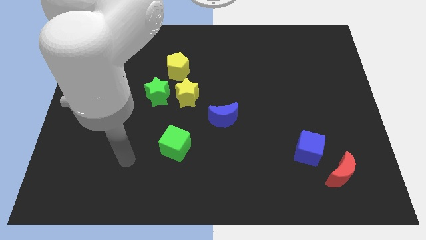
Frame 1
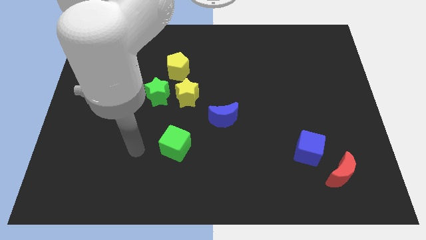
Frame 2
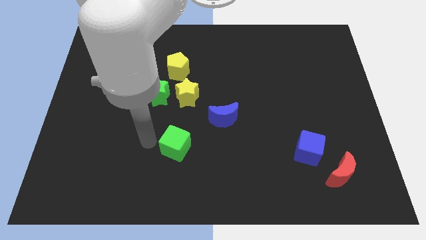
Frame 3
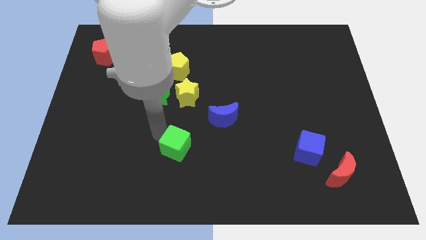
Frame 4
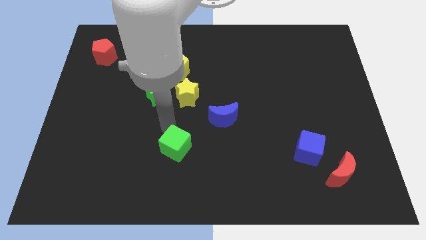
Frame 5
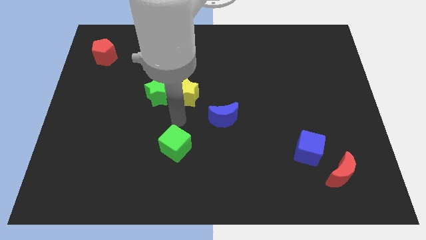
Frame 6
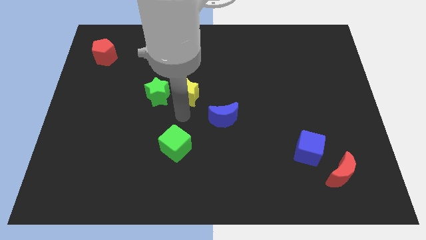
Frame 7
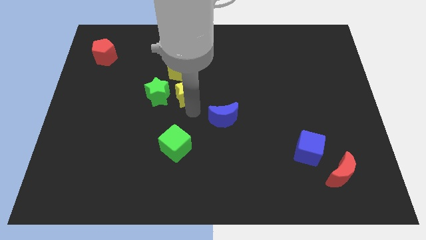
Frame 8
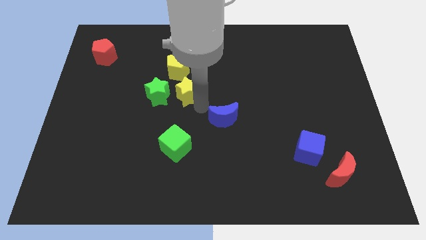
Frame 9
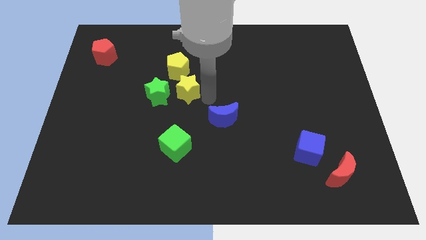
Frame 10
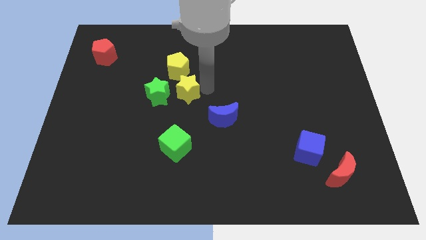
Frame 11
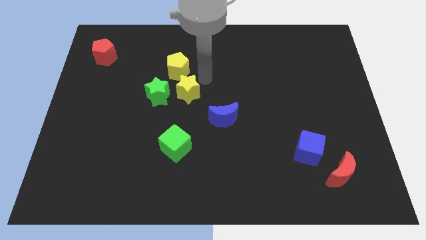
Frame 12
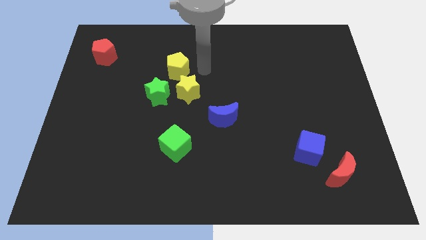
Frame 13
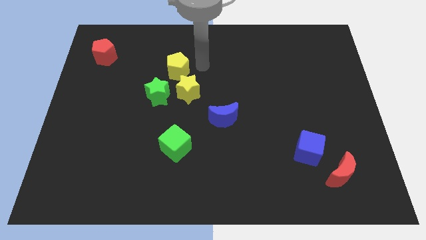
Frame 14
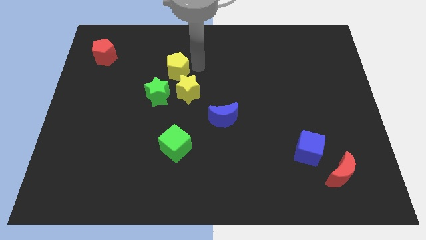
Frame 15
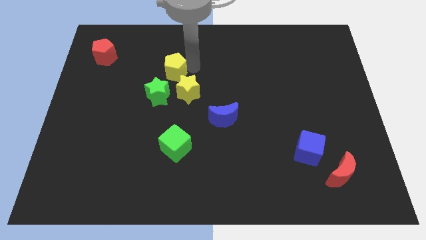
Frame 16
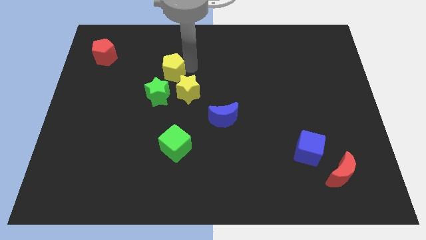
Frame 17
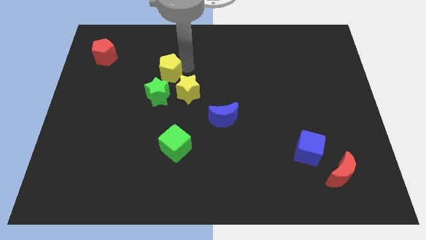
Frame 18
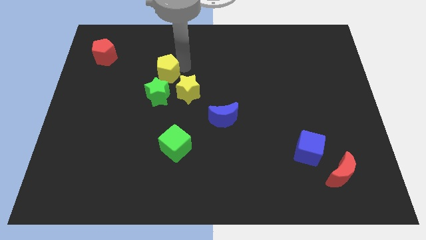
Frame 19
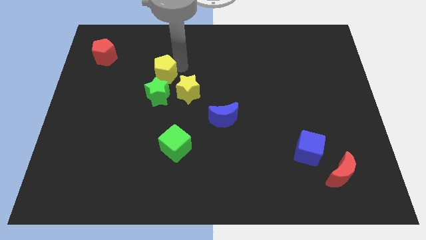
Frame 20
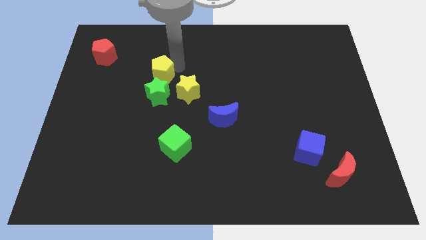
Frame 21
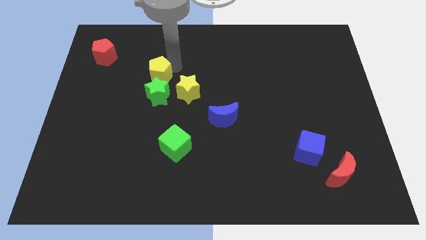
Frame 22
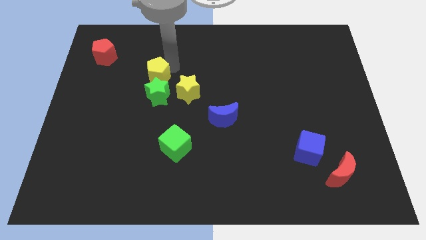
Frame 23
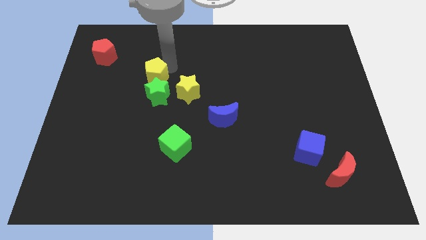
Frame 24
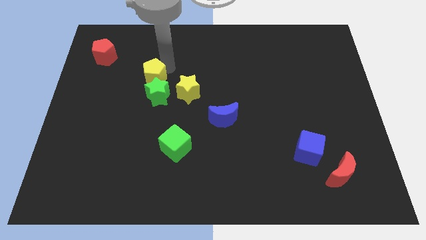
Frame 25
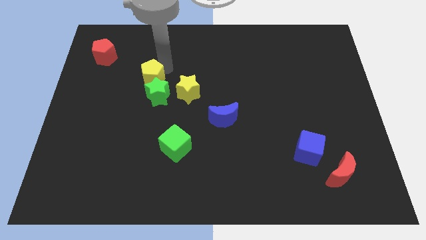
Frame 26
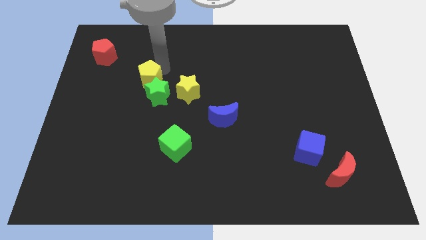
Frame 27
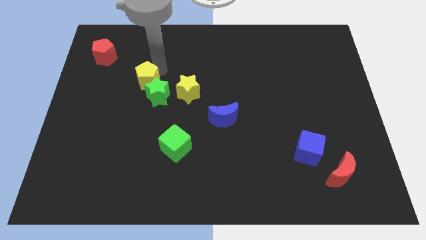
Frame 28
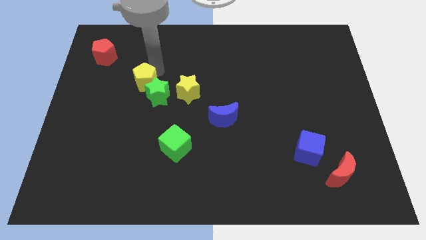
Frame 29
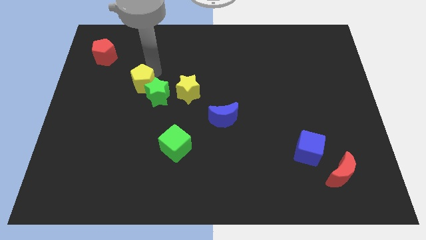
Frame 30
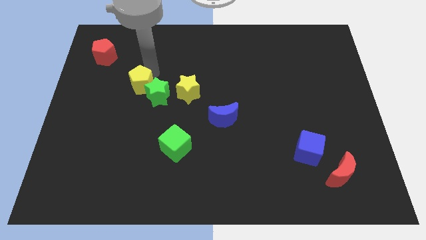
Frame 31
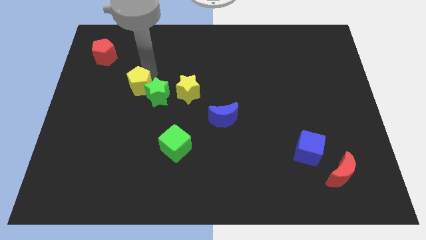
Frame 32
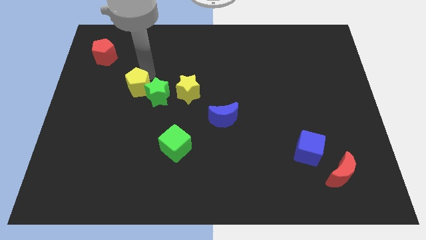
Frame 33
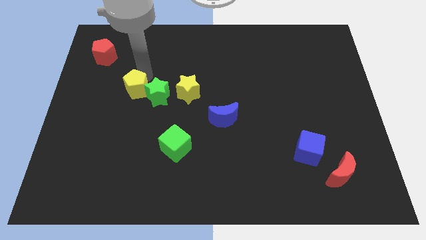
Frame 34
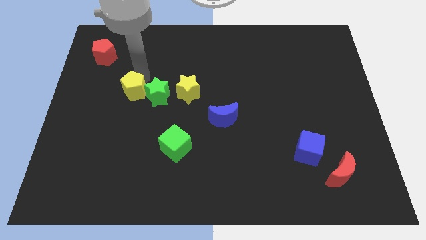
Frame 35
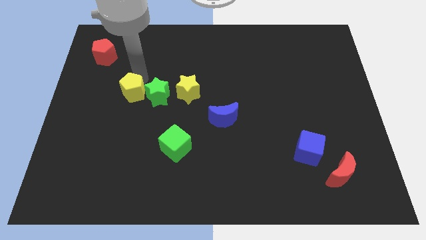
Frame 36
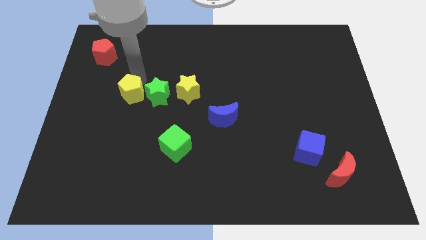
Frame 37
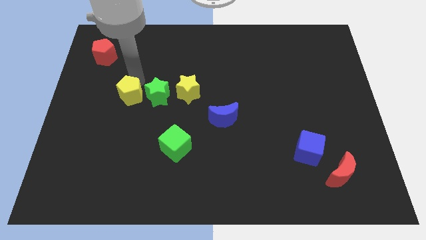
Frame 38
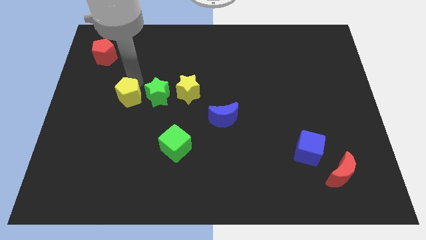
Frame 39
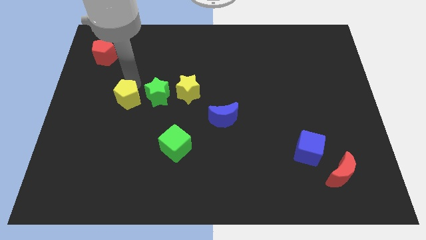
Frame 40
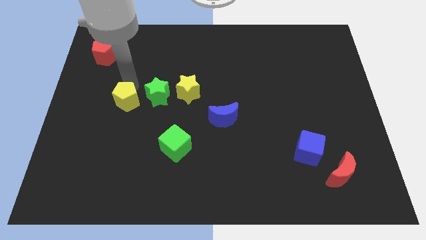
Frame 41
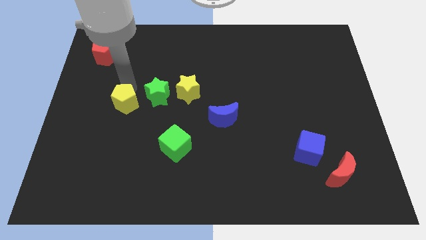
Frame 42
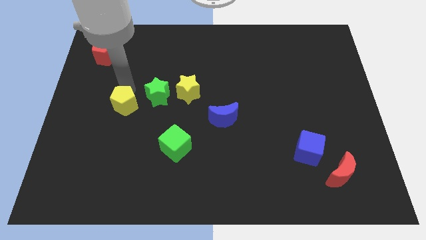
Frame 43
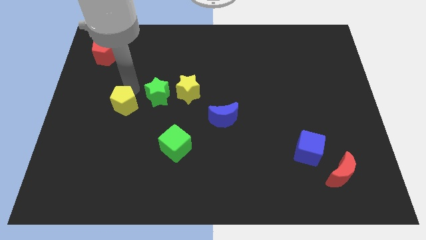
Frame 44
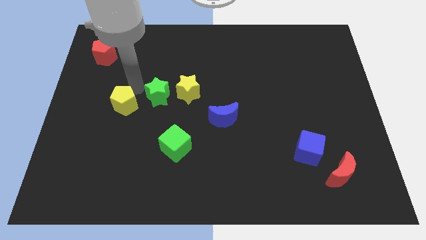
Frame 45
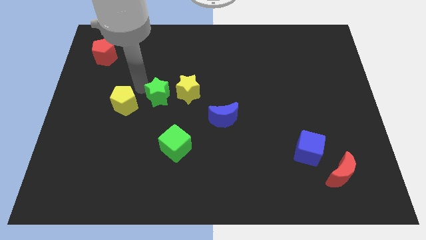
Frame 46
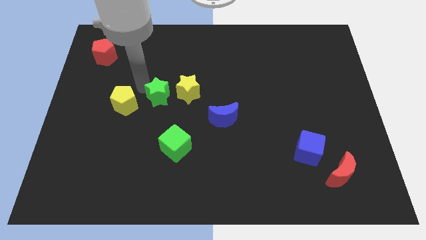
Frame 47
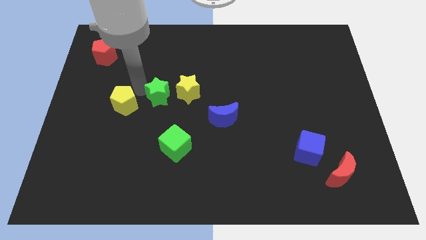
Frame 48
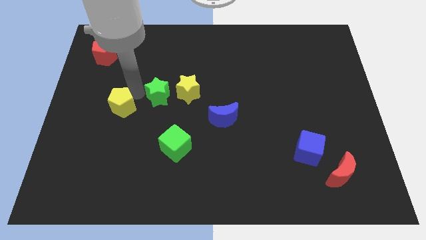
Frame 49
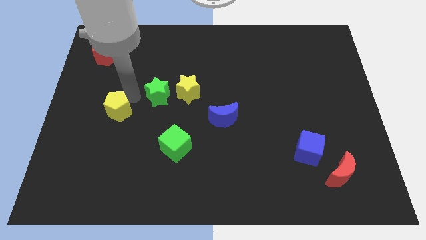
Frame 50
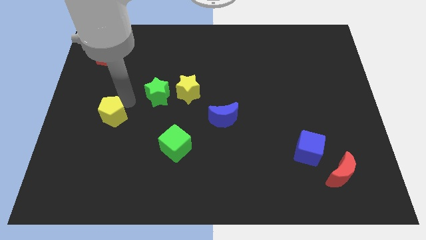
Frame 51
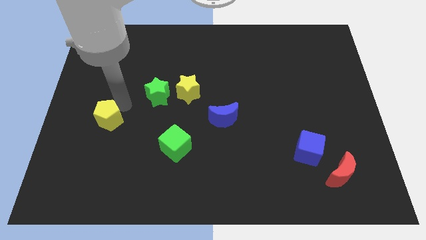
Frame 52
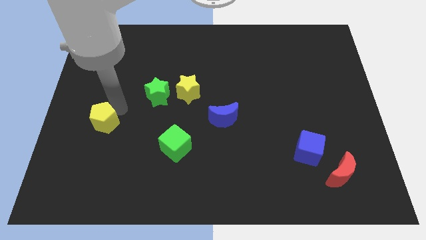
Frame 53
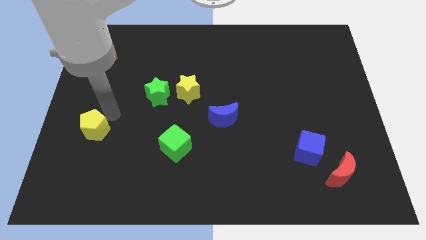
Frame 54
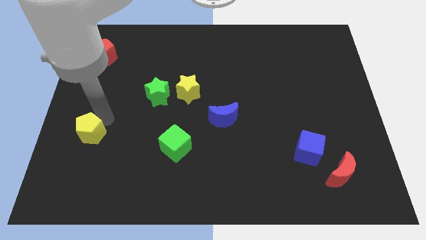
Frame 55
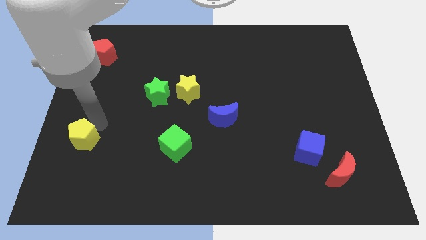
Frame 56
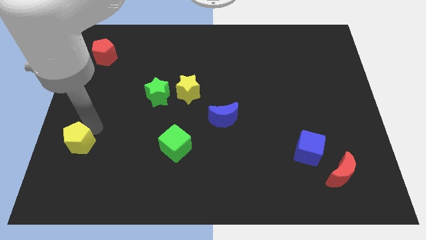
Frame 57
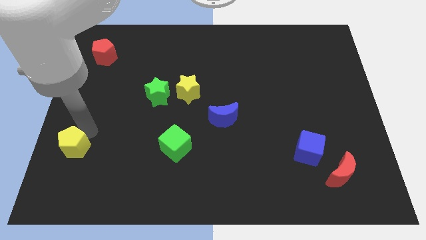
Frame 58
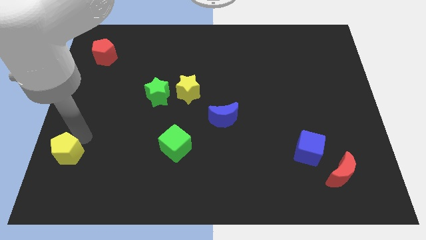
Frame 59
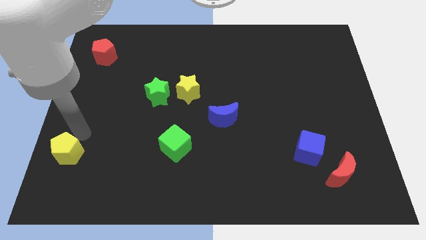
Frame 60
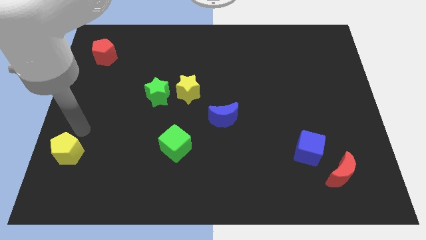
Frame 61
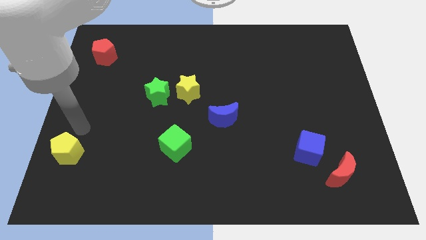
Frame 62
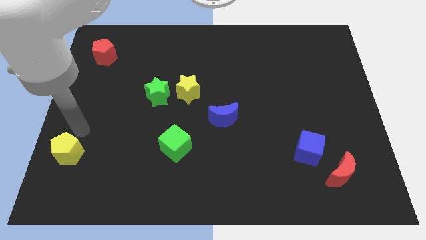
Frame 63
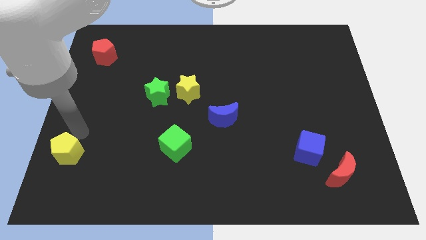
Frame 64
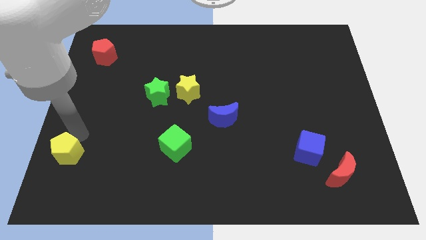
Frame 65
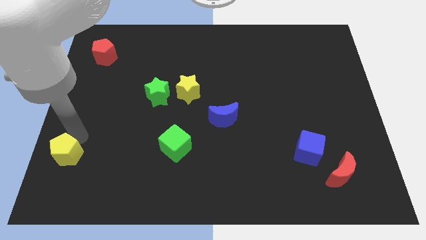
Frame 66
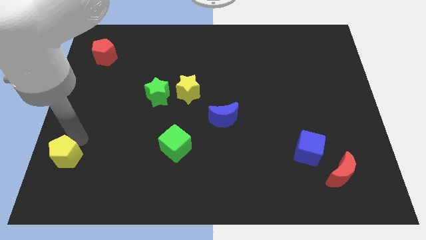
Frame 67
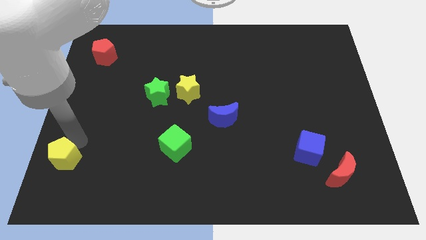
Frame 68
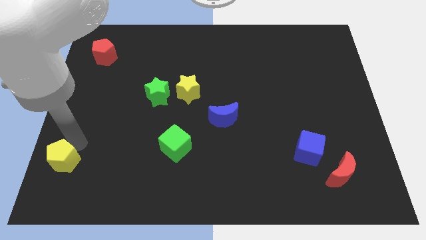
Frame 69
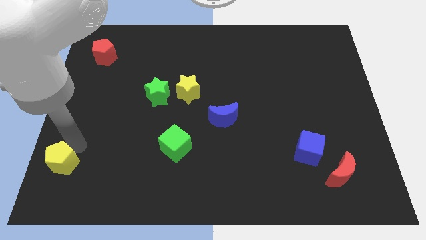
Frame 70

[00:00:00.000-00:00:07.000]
put the yellow pentagon to the bottom left of the board
